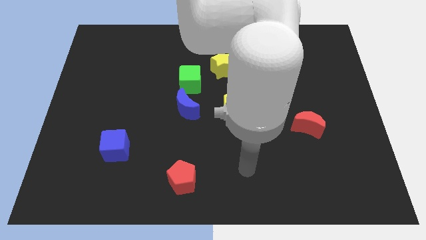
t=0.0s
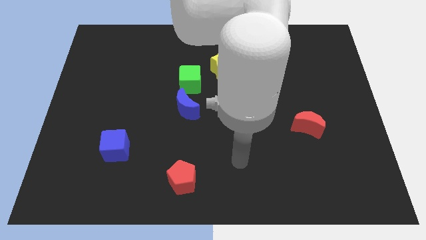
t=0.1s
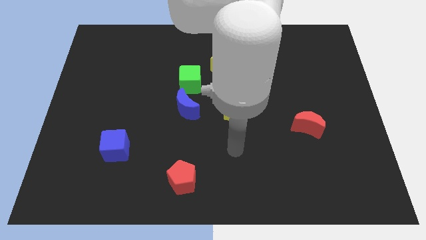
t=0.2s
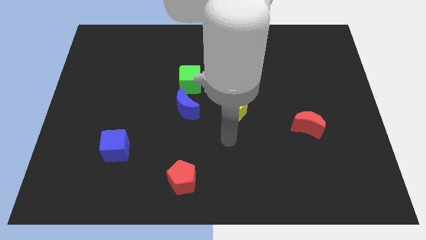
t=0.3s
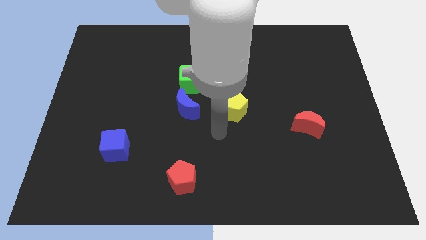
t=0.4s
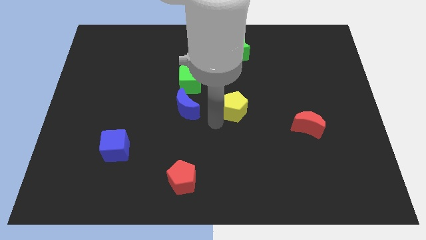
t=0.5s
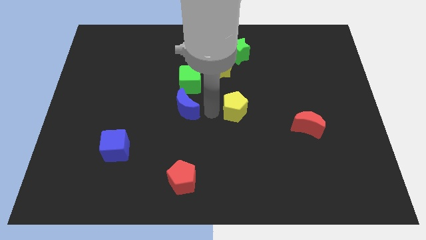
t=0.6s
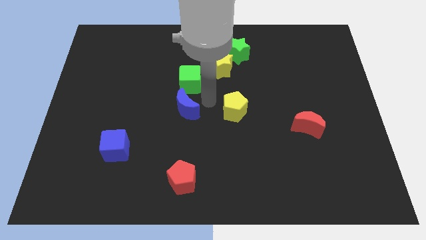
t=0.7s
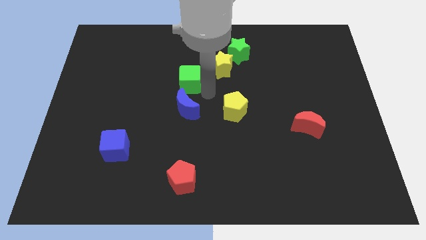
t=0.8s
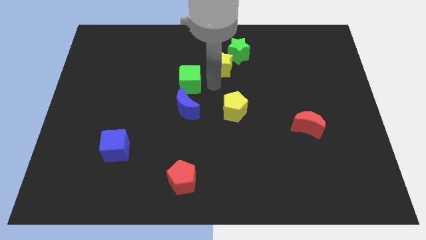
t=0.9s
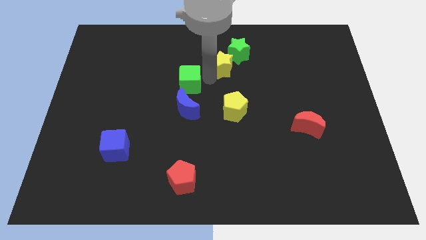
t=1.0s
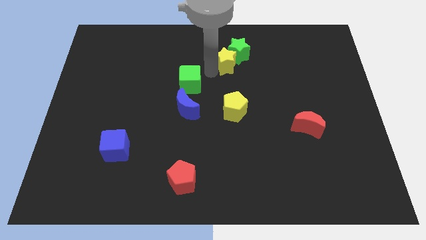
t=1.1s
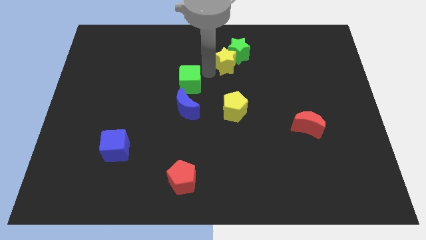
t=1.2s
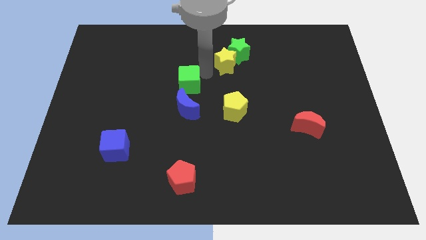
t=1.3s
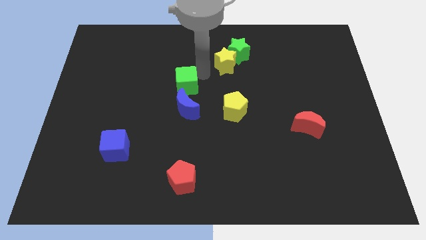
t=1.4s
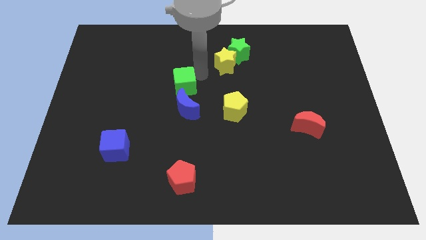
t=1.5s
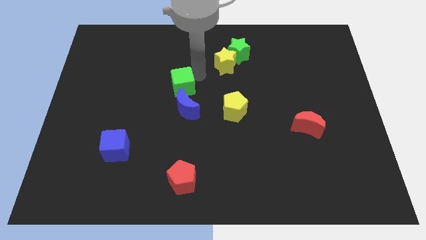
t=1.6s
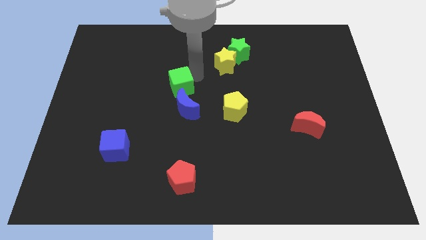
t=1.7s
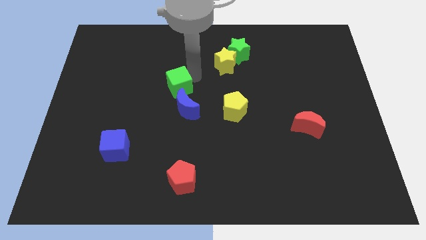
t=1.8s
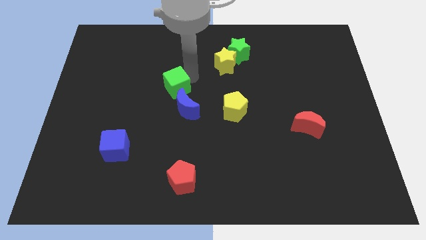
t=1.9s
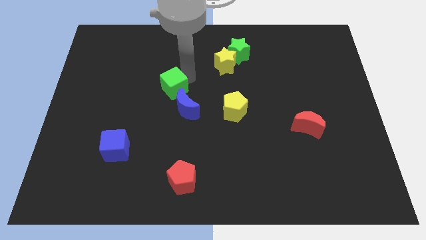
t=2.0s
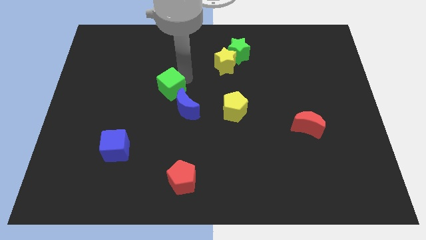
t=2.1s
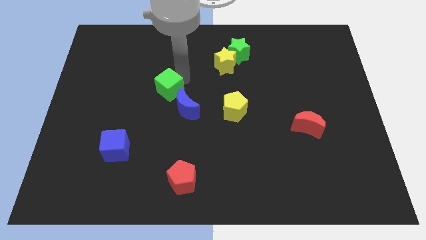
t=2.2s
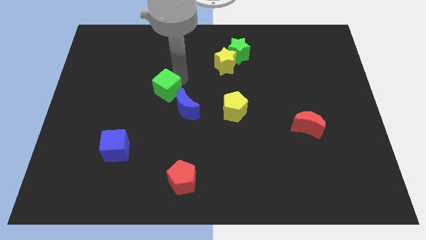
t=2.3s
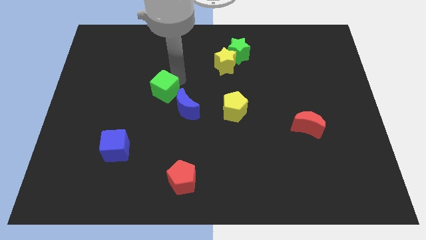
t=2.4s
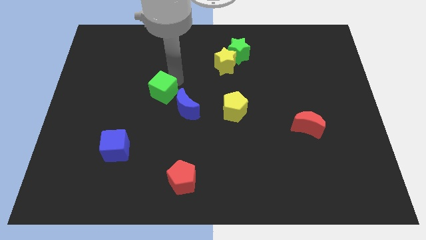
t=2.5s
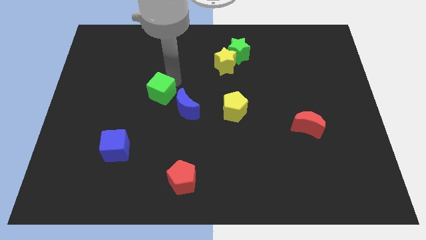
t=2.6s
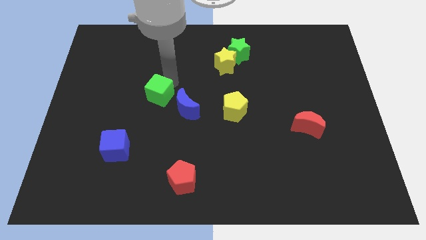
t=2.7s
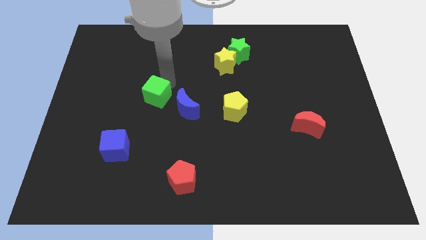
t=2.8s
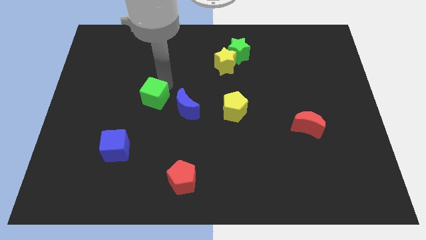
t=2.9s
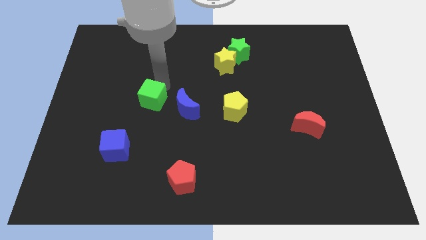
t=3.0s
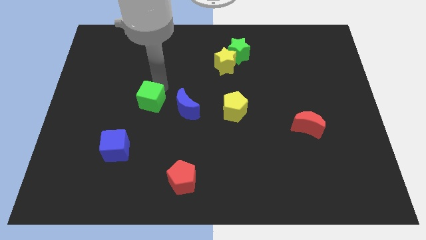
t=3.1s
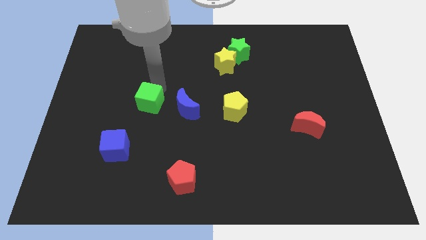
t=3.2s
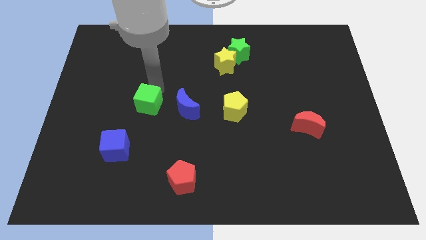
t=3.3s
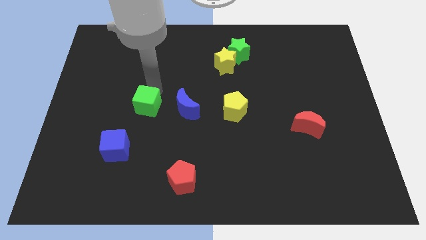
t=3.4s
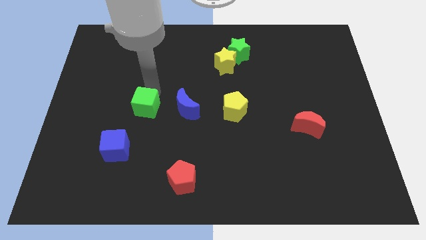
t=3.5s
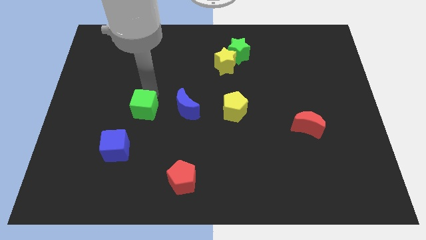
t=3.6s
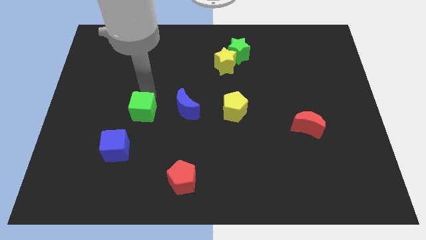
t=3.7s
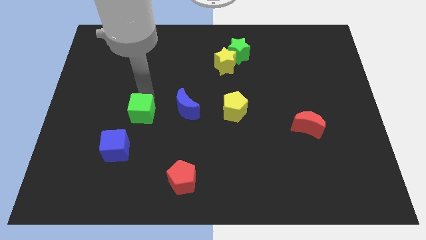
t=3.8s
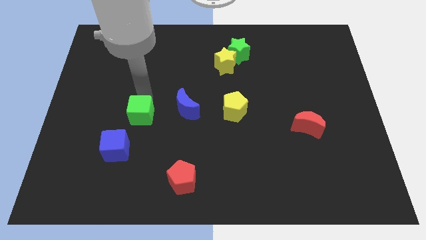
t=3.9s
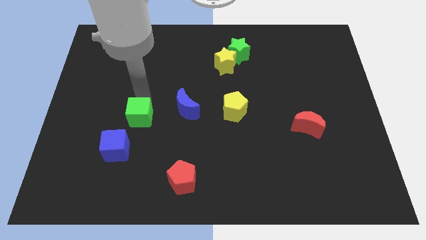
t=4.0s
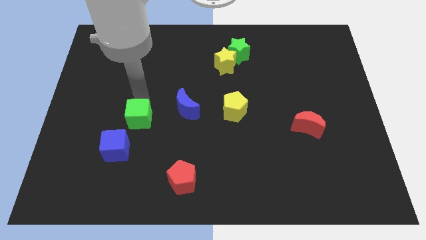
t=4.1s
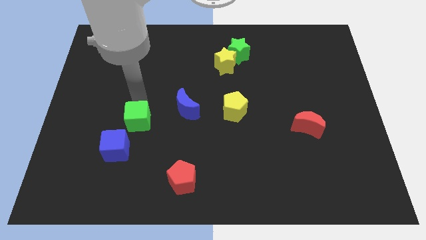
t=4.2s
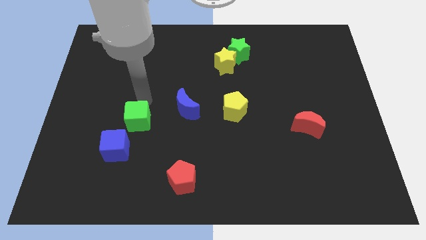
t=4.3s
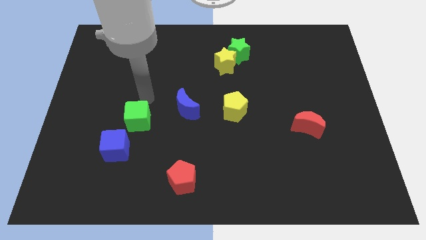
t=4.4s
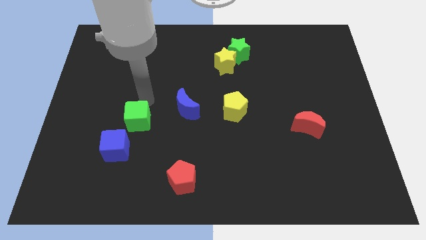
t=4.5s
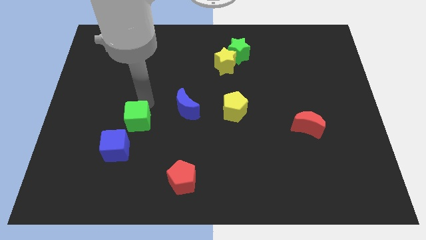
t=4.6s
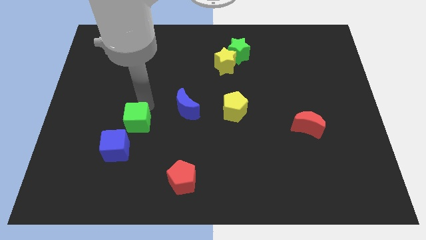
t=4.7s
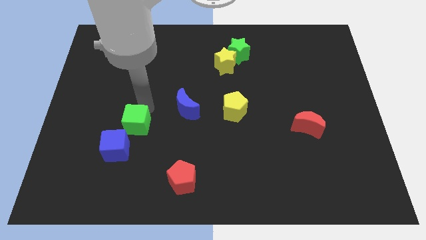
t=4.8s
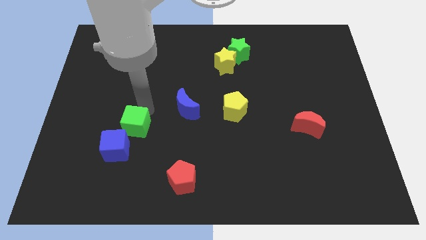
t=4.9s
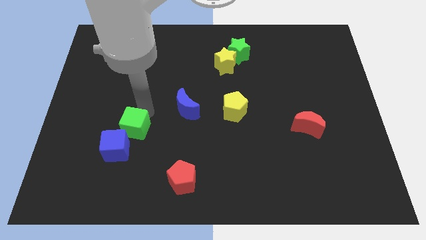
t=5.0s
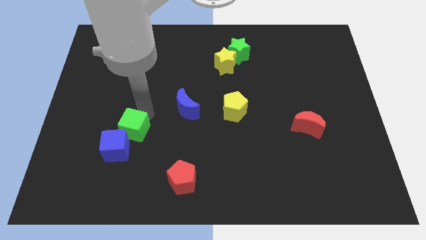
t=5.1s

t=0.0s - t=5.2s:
slide the green cube close to the blue cube

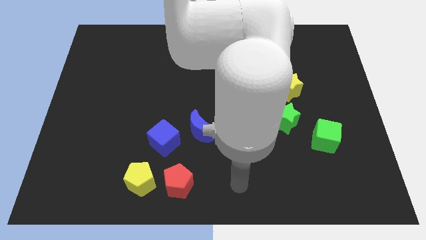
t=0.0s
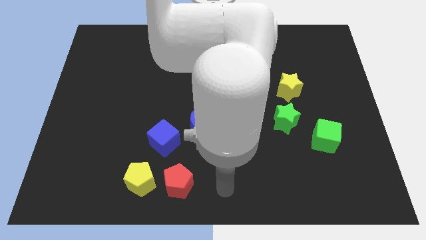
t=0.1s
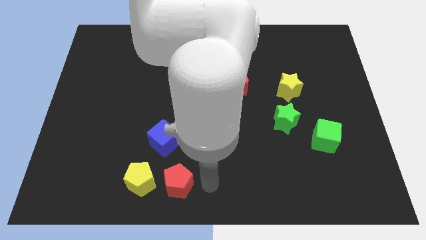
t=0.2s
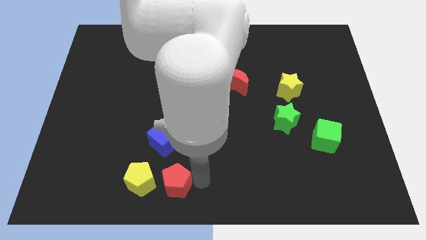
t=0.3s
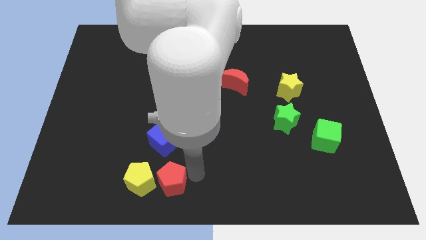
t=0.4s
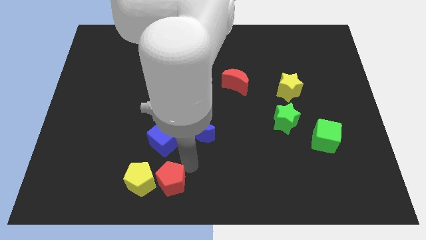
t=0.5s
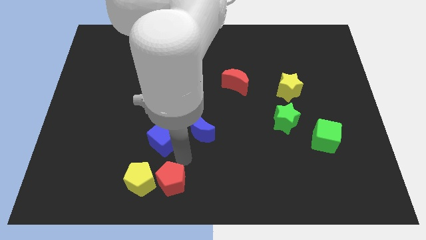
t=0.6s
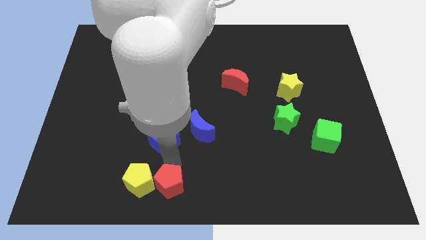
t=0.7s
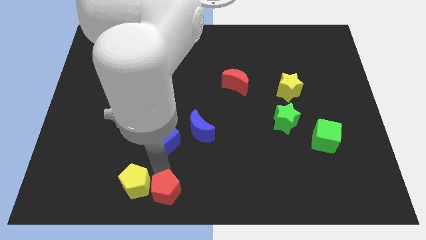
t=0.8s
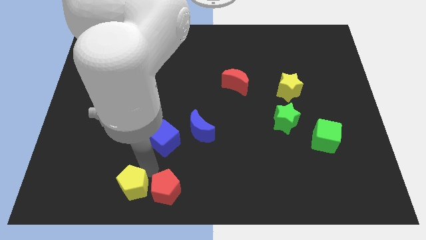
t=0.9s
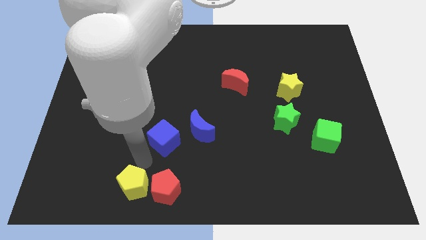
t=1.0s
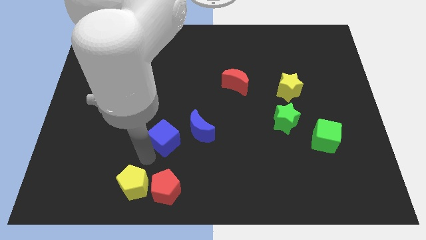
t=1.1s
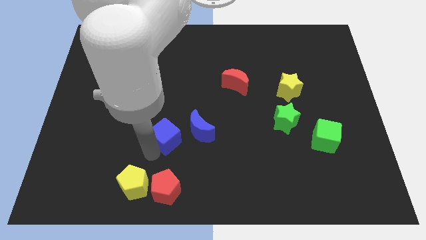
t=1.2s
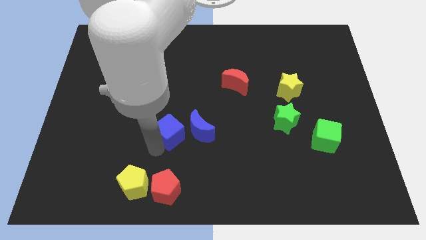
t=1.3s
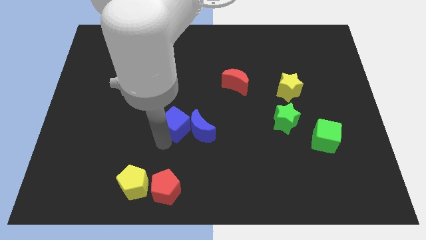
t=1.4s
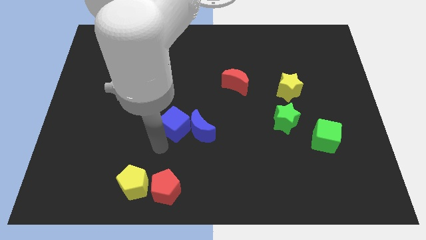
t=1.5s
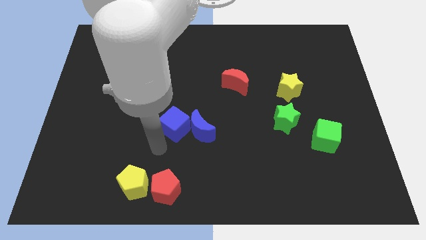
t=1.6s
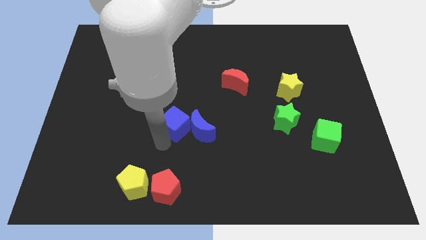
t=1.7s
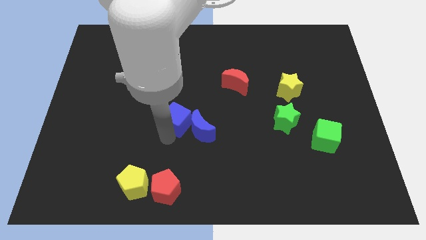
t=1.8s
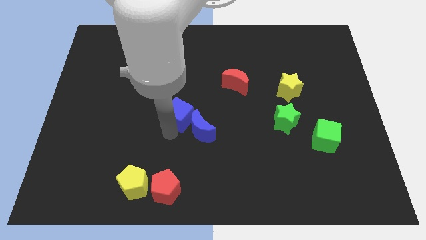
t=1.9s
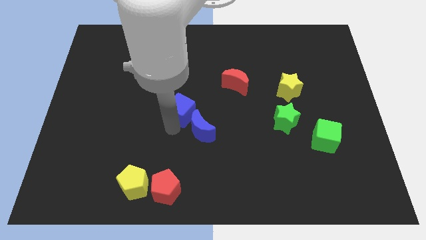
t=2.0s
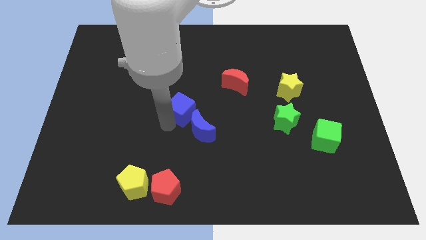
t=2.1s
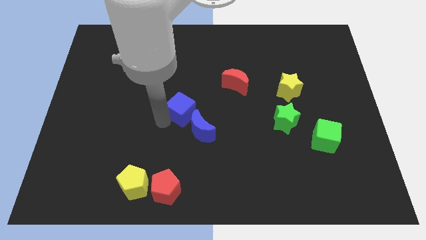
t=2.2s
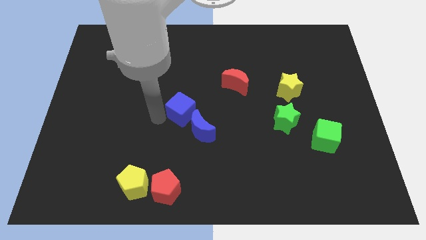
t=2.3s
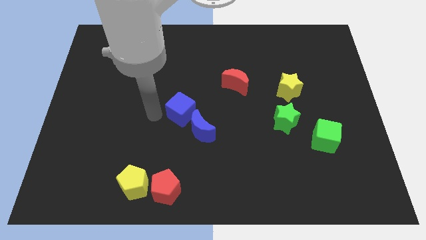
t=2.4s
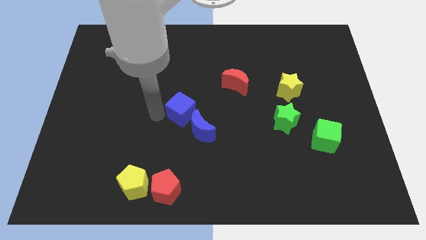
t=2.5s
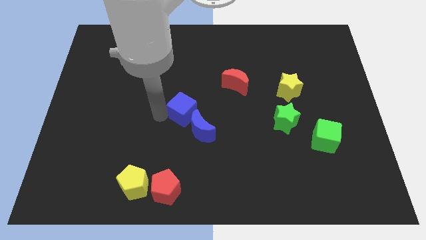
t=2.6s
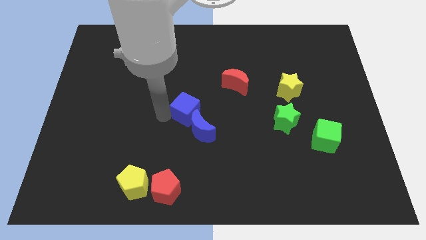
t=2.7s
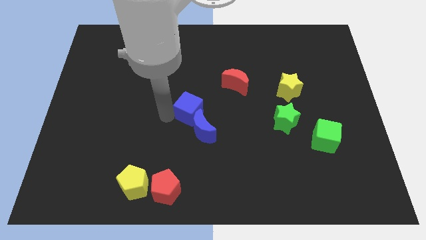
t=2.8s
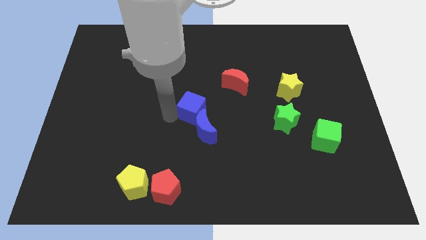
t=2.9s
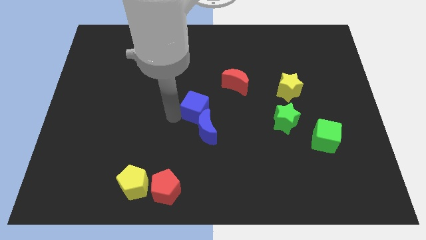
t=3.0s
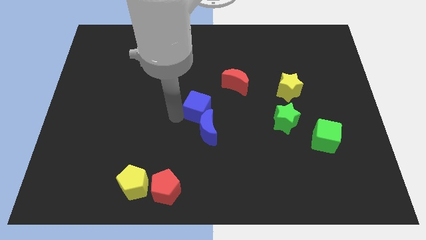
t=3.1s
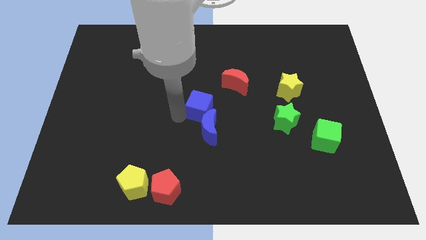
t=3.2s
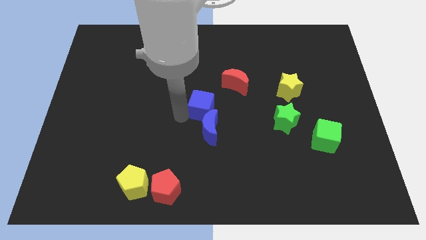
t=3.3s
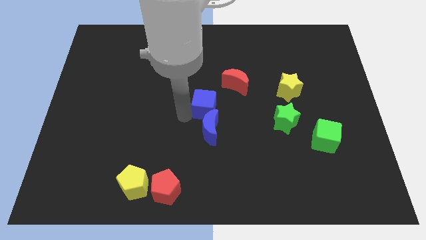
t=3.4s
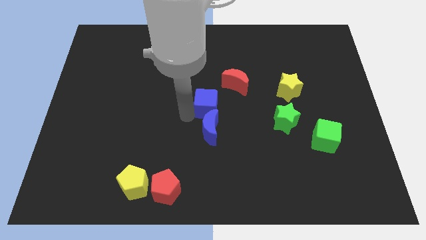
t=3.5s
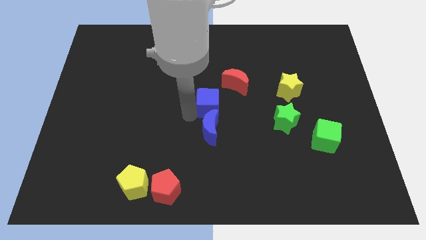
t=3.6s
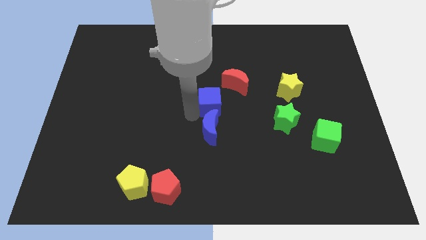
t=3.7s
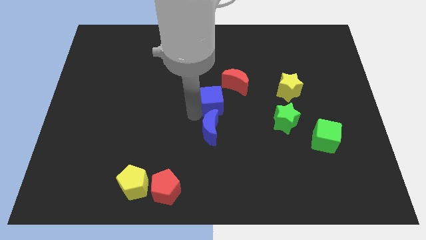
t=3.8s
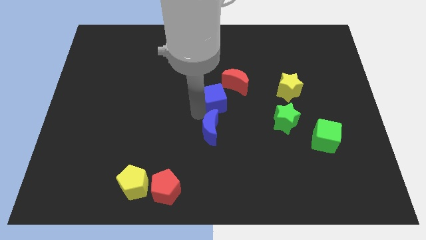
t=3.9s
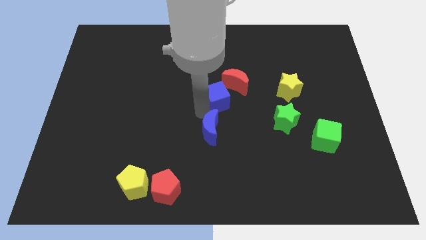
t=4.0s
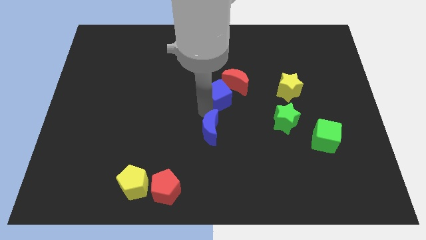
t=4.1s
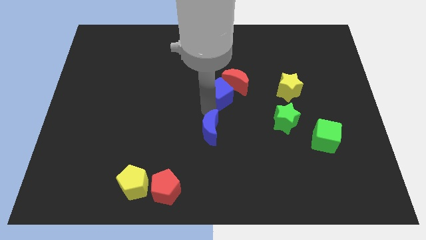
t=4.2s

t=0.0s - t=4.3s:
move the blue cube to the red moon
